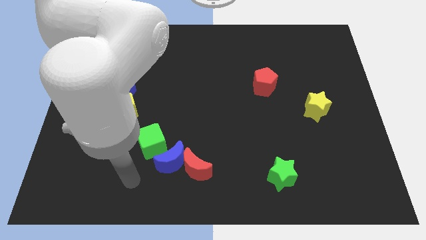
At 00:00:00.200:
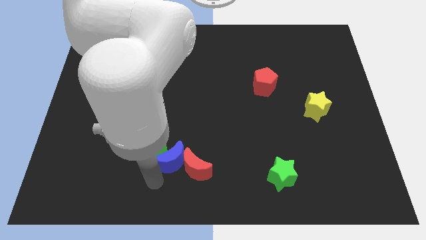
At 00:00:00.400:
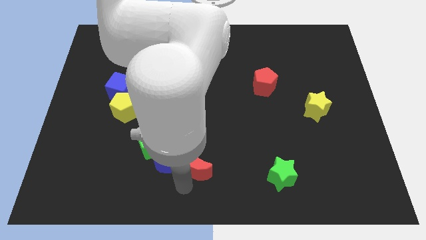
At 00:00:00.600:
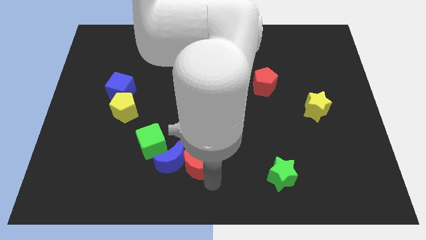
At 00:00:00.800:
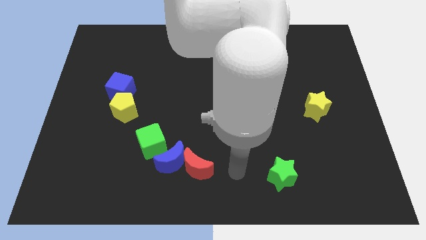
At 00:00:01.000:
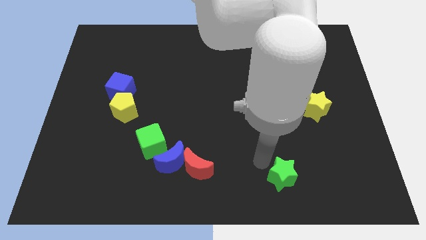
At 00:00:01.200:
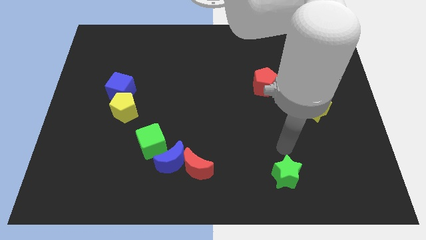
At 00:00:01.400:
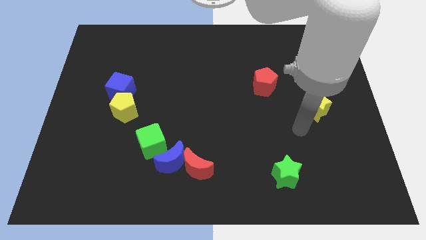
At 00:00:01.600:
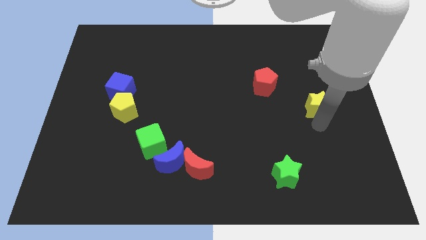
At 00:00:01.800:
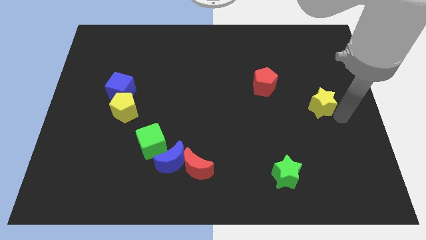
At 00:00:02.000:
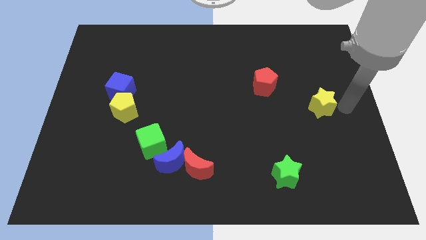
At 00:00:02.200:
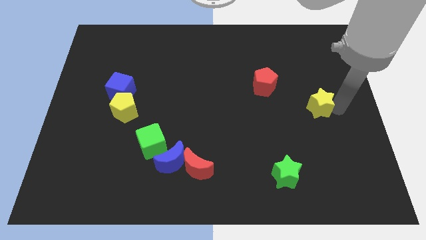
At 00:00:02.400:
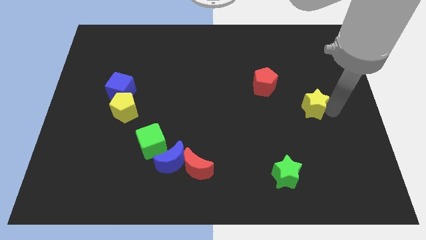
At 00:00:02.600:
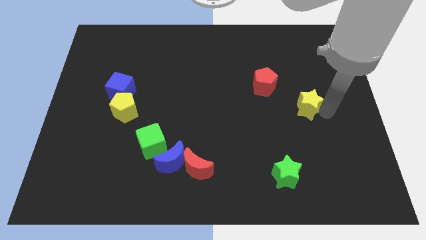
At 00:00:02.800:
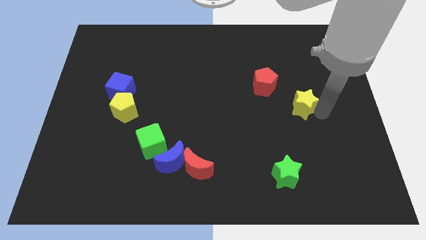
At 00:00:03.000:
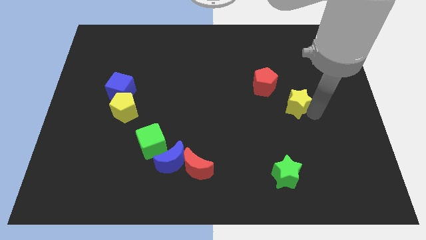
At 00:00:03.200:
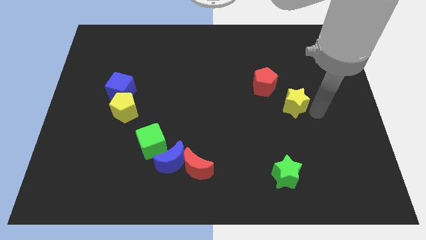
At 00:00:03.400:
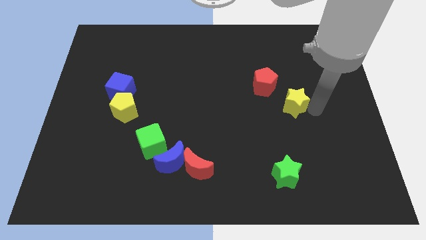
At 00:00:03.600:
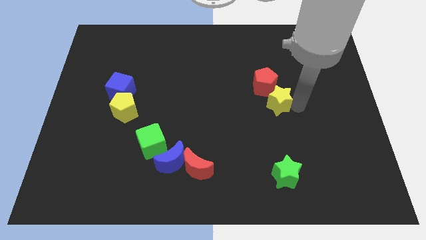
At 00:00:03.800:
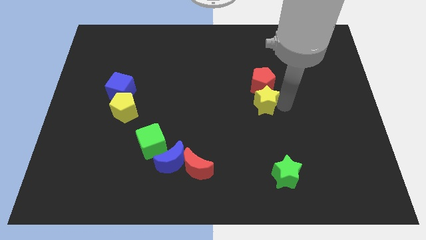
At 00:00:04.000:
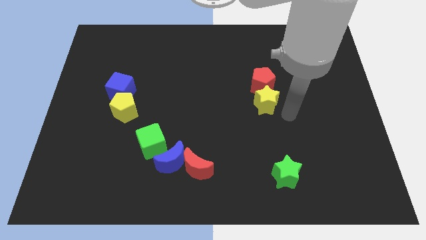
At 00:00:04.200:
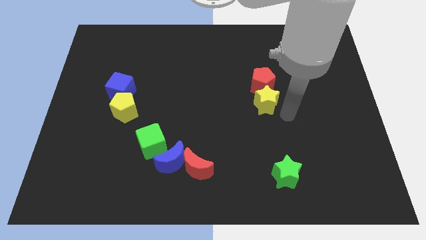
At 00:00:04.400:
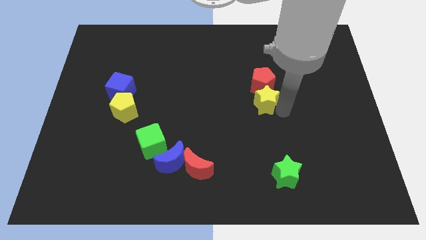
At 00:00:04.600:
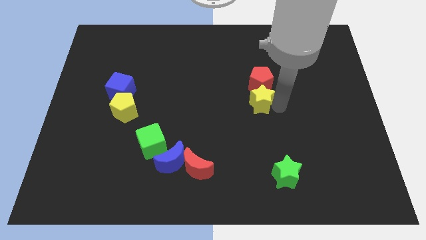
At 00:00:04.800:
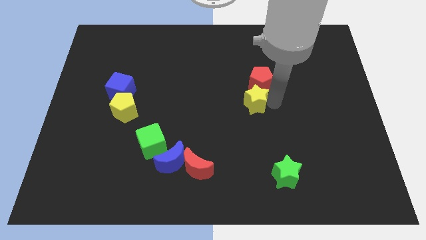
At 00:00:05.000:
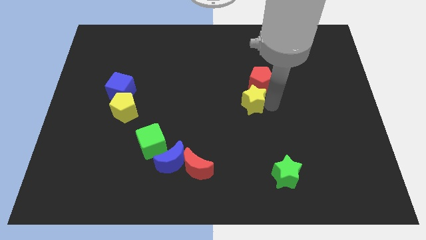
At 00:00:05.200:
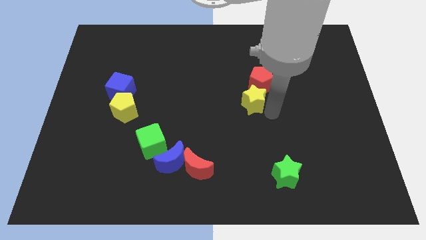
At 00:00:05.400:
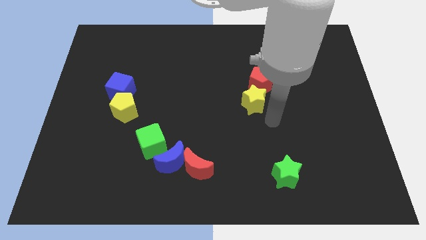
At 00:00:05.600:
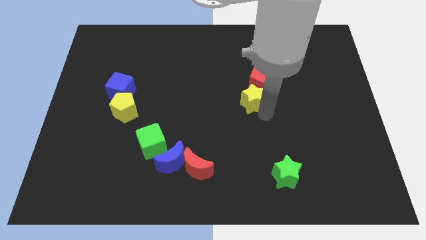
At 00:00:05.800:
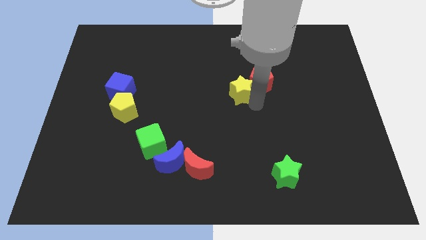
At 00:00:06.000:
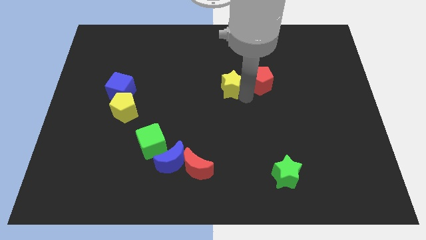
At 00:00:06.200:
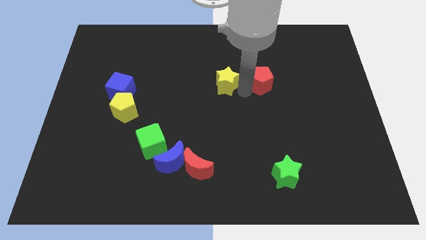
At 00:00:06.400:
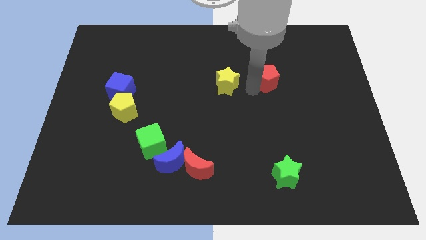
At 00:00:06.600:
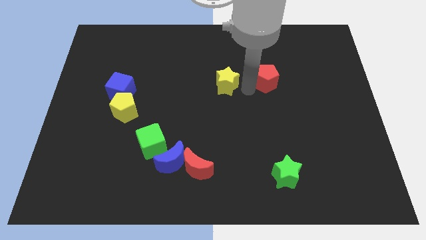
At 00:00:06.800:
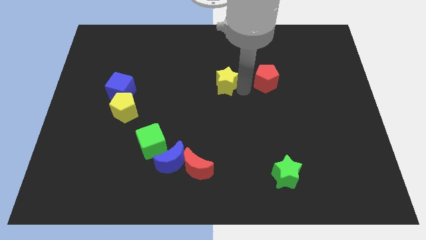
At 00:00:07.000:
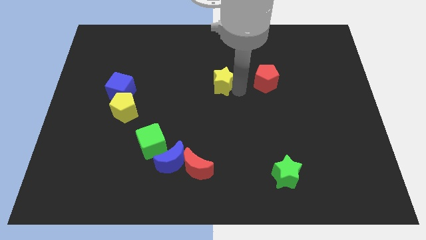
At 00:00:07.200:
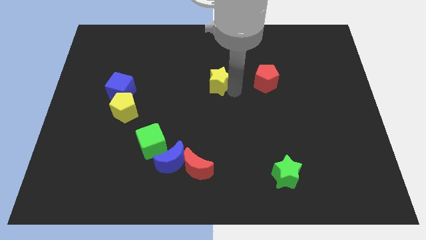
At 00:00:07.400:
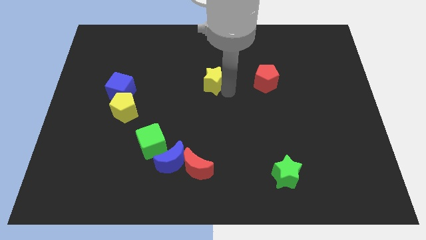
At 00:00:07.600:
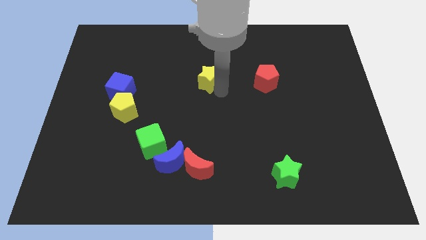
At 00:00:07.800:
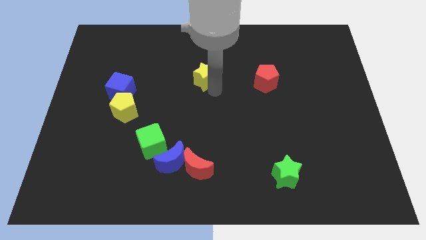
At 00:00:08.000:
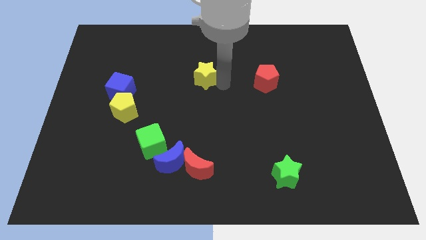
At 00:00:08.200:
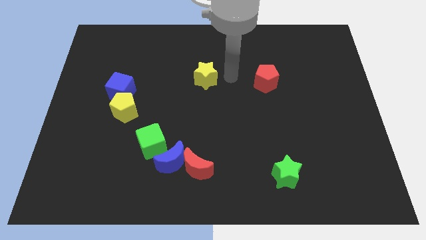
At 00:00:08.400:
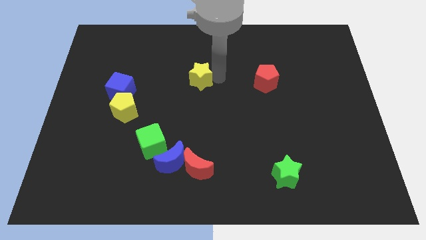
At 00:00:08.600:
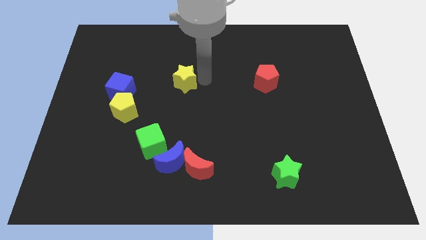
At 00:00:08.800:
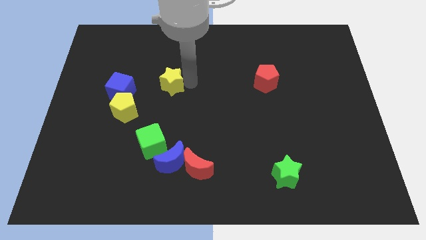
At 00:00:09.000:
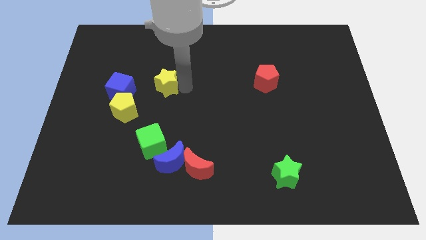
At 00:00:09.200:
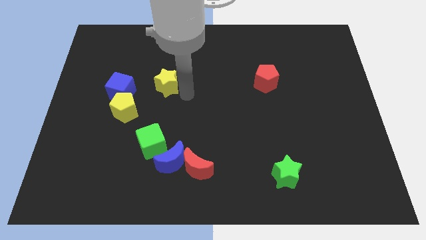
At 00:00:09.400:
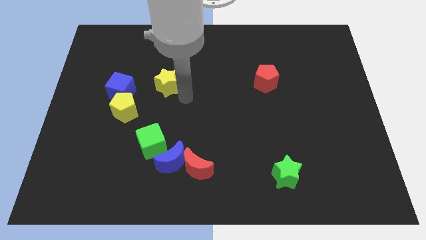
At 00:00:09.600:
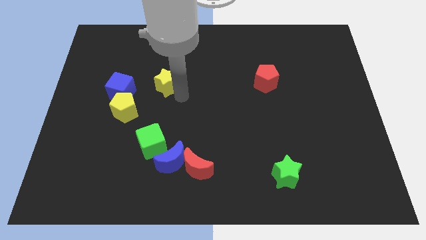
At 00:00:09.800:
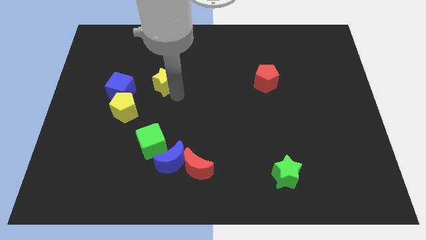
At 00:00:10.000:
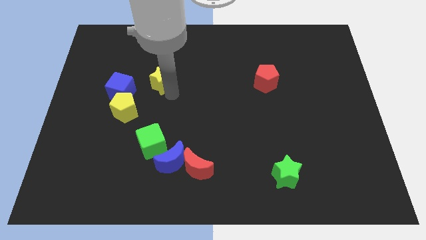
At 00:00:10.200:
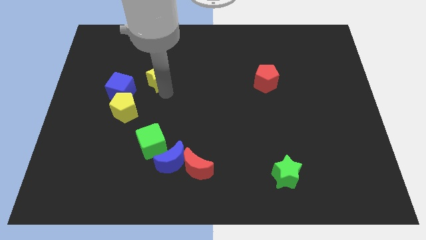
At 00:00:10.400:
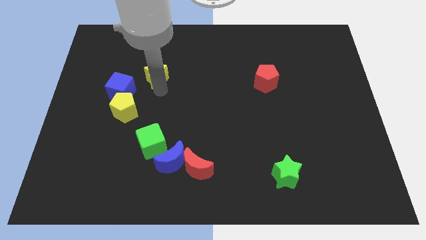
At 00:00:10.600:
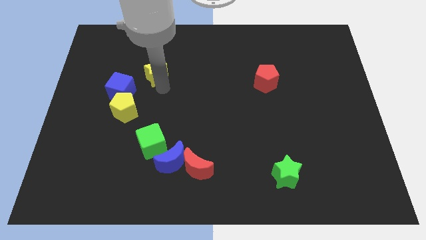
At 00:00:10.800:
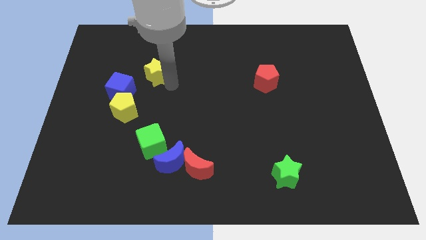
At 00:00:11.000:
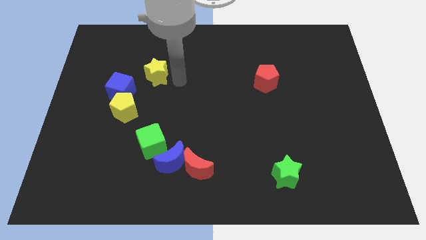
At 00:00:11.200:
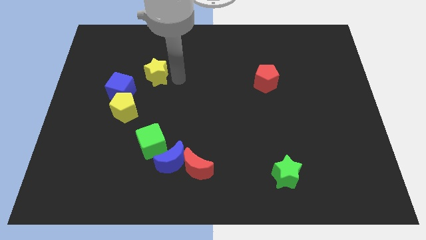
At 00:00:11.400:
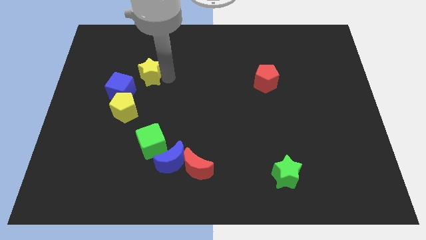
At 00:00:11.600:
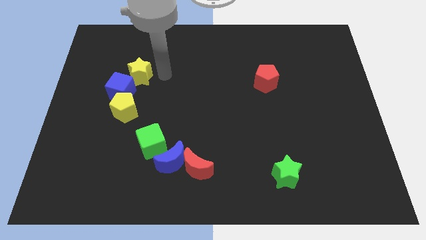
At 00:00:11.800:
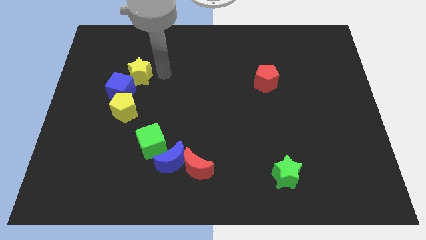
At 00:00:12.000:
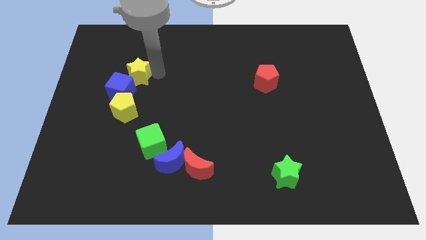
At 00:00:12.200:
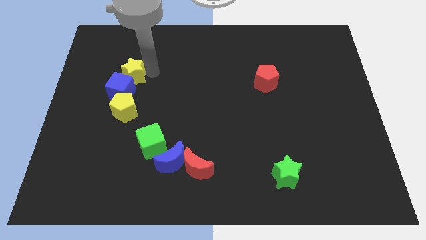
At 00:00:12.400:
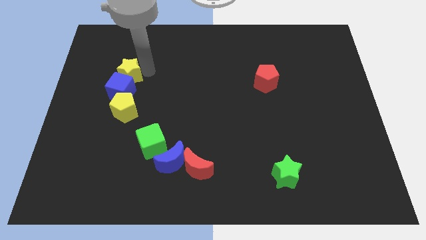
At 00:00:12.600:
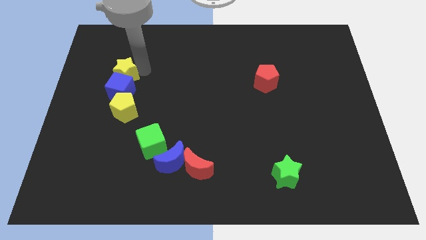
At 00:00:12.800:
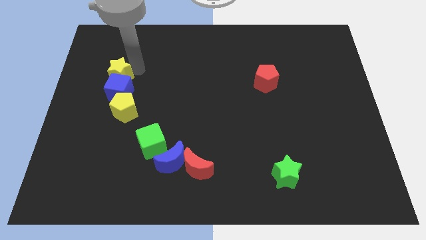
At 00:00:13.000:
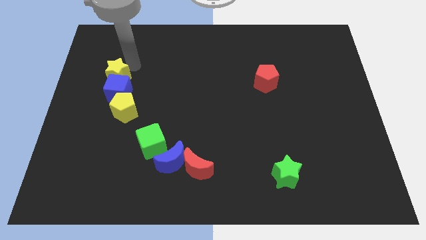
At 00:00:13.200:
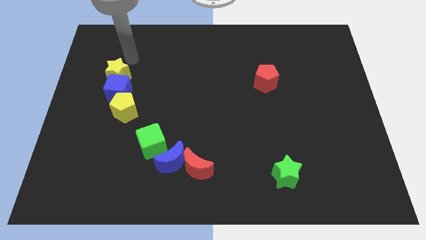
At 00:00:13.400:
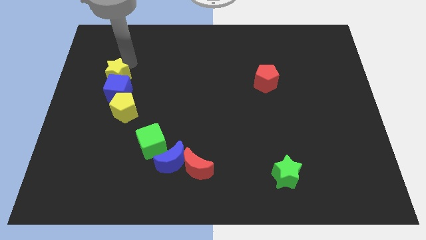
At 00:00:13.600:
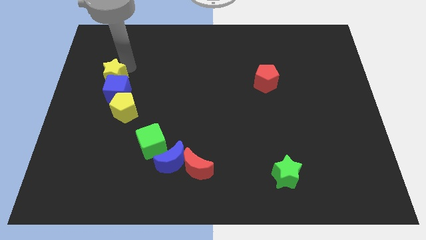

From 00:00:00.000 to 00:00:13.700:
move the yellow star diagonally up and to the left of the yellow pentagon

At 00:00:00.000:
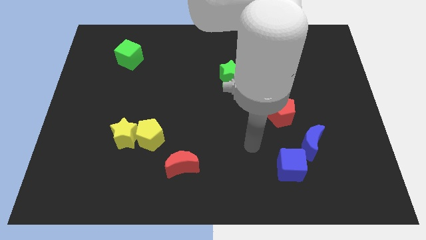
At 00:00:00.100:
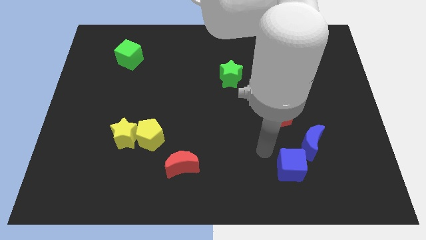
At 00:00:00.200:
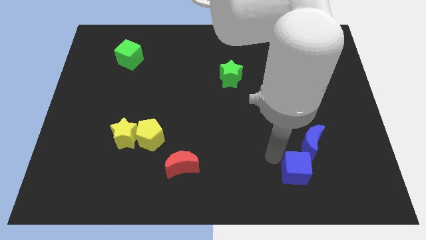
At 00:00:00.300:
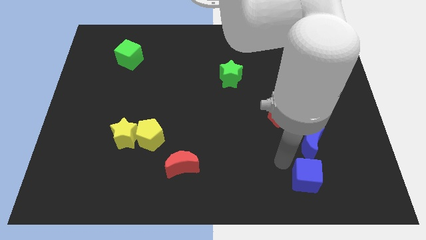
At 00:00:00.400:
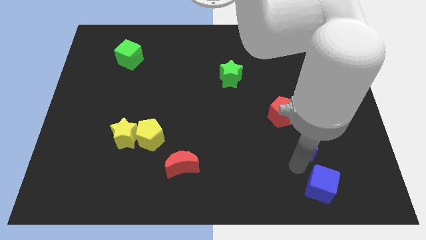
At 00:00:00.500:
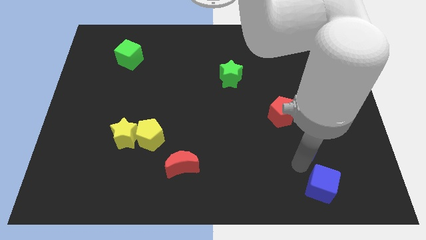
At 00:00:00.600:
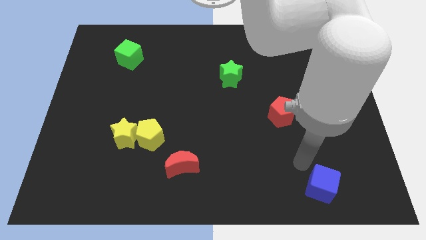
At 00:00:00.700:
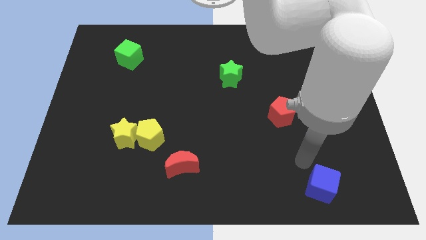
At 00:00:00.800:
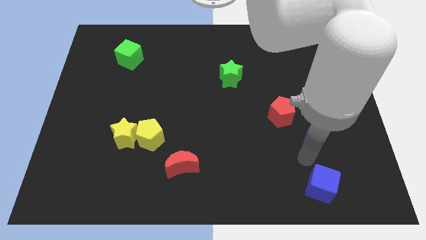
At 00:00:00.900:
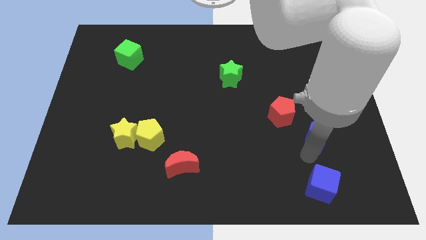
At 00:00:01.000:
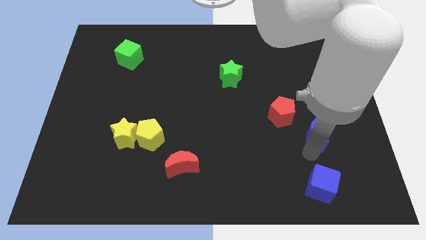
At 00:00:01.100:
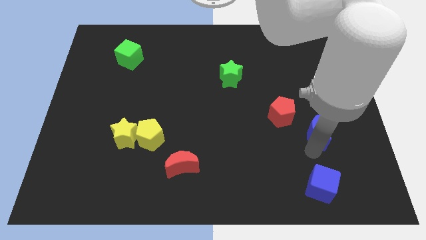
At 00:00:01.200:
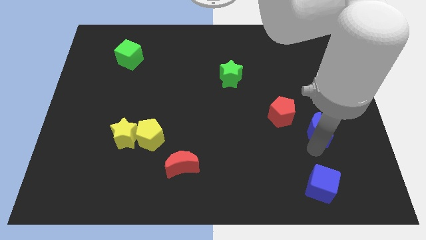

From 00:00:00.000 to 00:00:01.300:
move the blue moon right of the red pentagon
